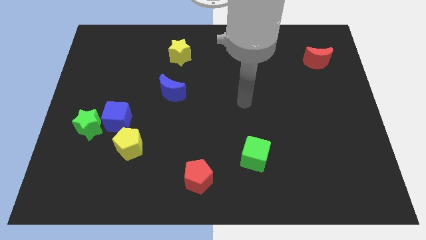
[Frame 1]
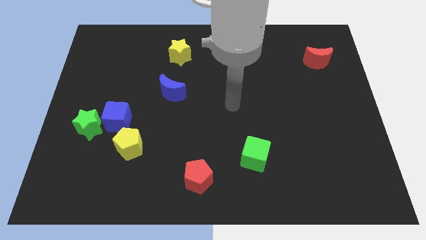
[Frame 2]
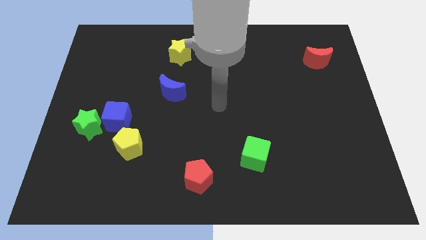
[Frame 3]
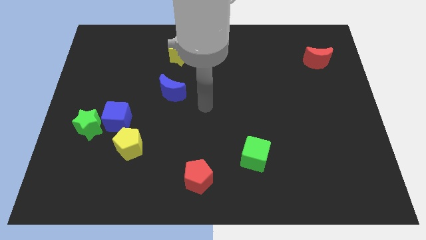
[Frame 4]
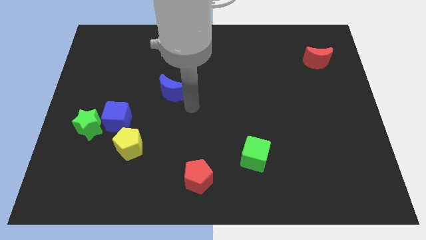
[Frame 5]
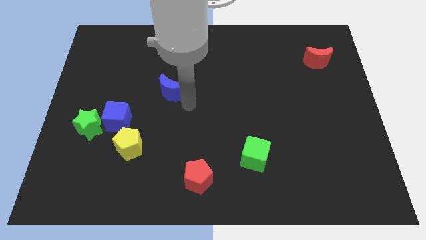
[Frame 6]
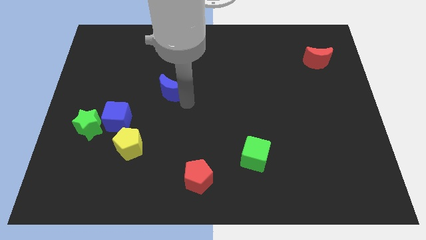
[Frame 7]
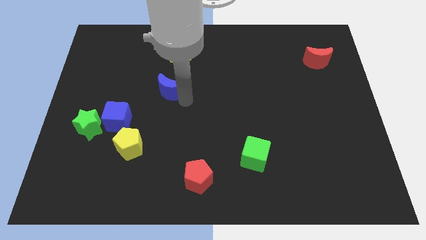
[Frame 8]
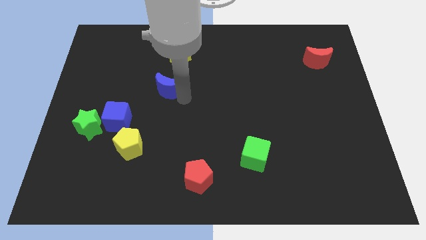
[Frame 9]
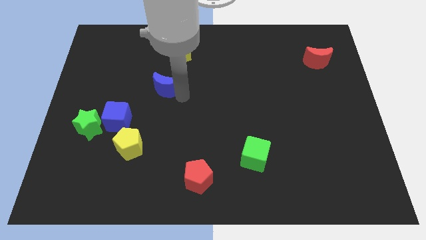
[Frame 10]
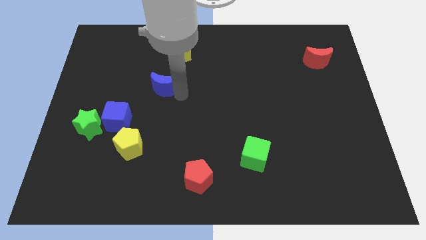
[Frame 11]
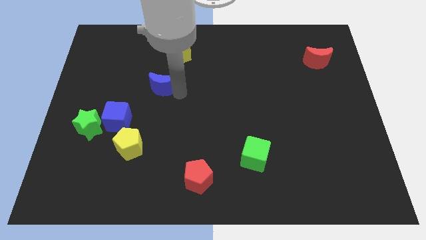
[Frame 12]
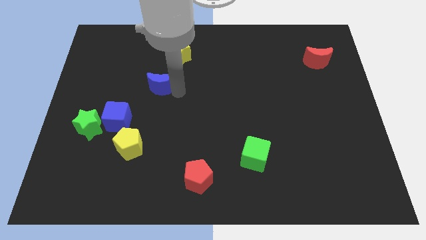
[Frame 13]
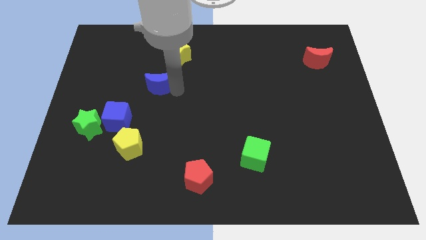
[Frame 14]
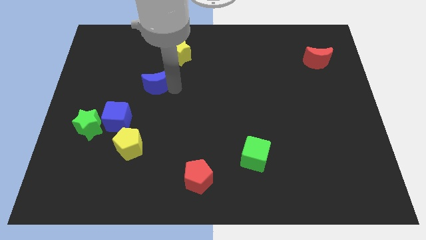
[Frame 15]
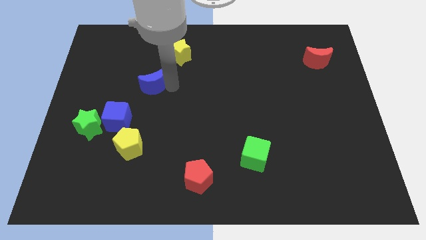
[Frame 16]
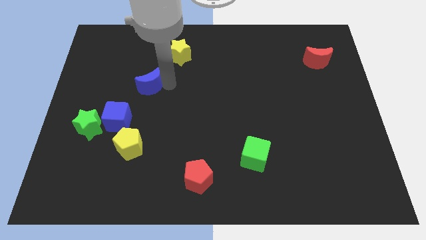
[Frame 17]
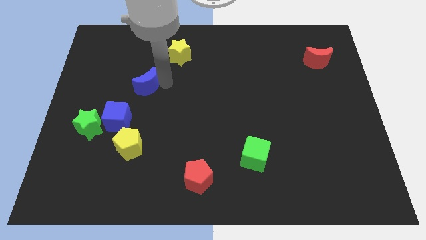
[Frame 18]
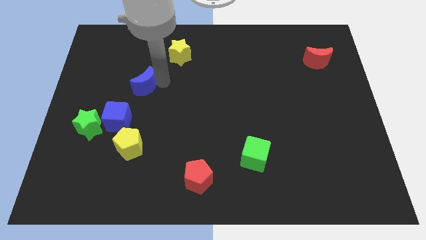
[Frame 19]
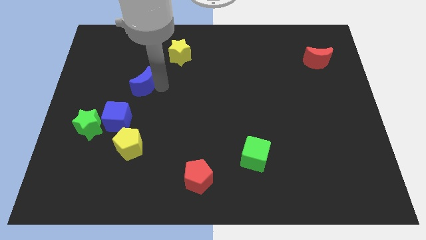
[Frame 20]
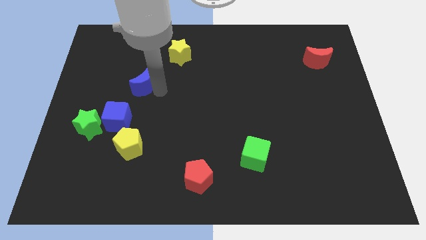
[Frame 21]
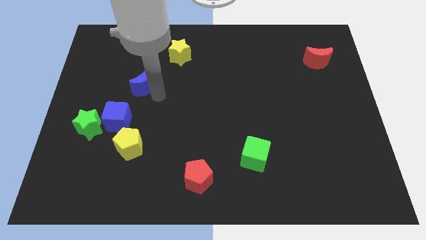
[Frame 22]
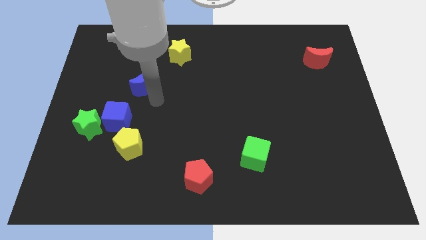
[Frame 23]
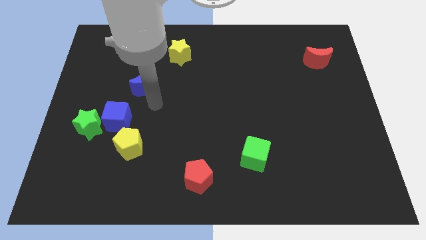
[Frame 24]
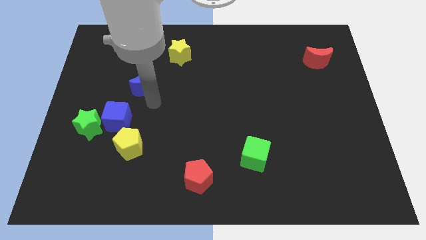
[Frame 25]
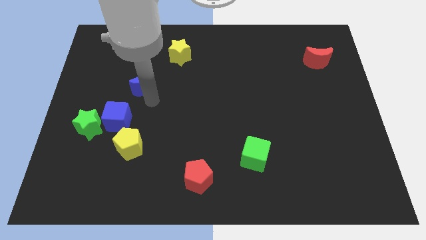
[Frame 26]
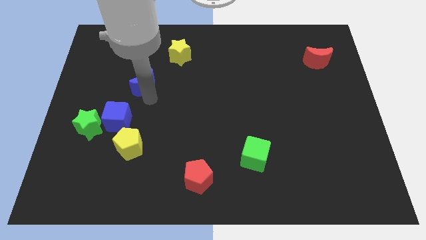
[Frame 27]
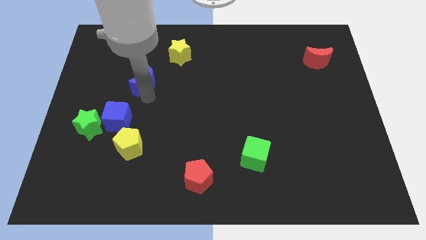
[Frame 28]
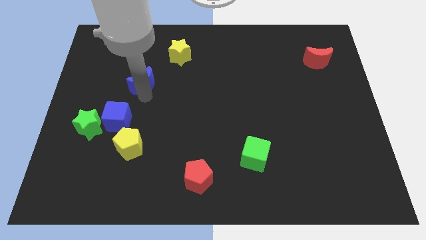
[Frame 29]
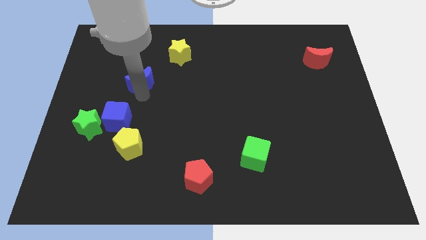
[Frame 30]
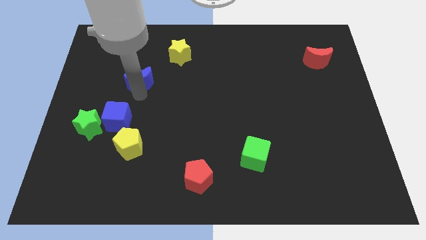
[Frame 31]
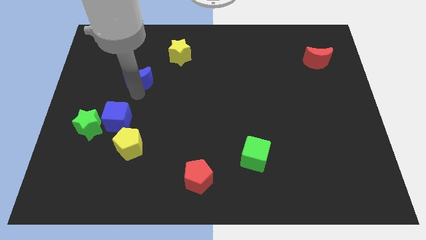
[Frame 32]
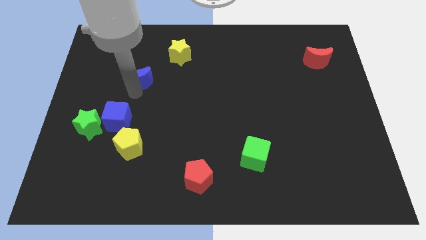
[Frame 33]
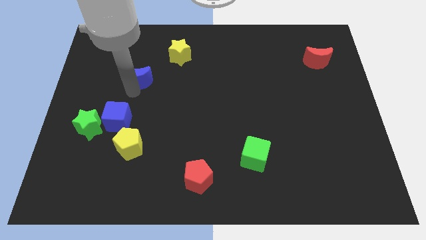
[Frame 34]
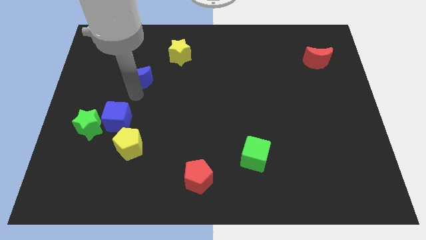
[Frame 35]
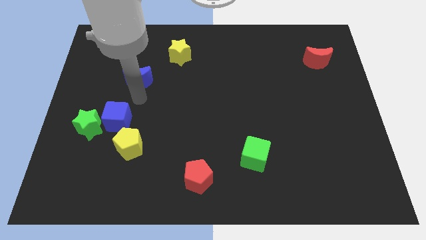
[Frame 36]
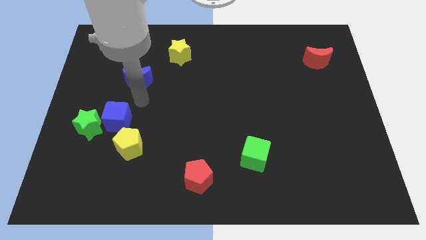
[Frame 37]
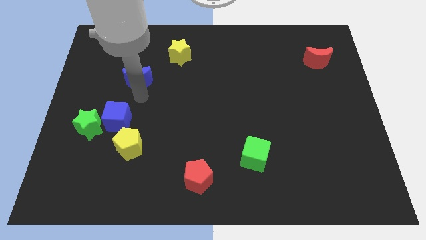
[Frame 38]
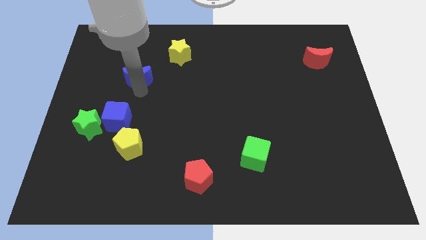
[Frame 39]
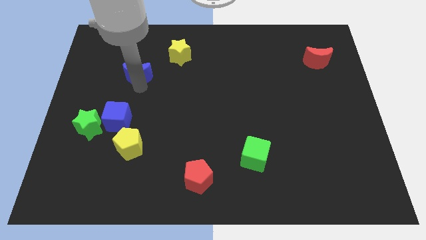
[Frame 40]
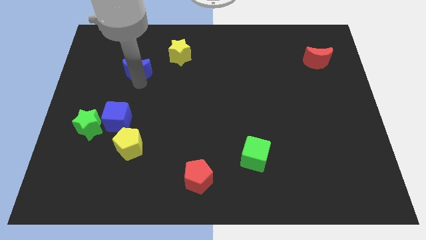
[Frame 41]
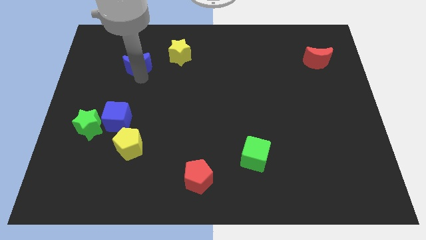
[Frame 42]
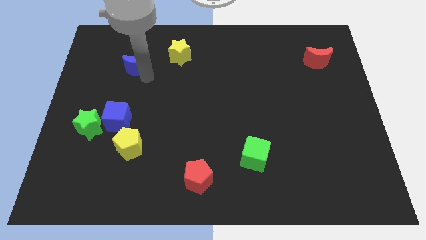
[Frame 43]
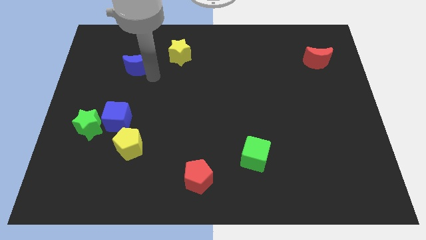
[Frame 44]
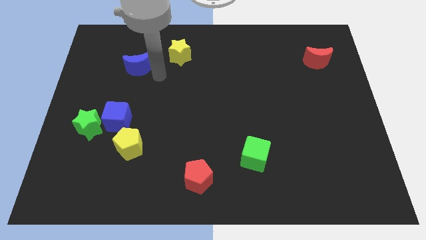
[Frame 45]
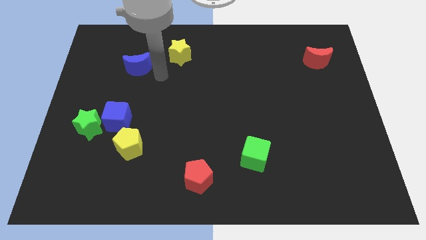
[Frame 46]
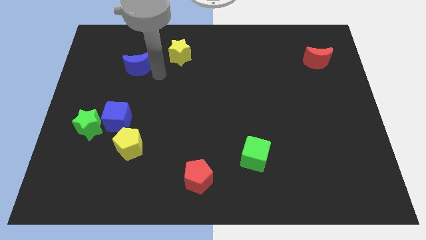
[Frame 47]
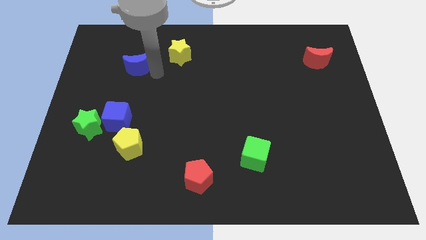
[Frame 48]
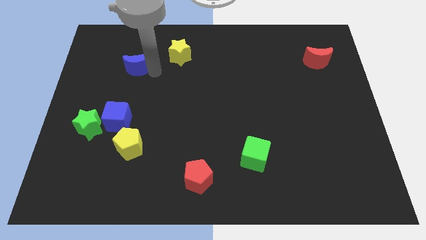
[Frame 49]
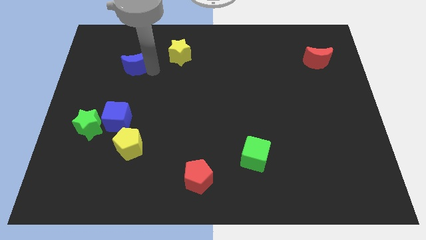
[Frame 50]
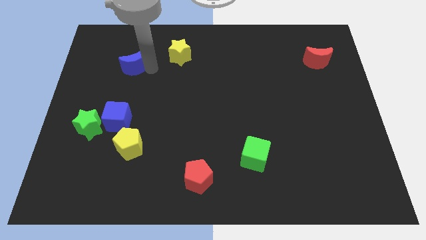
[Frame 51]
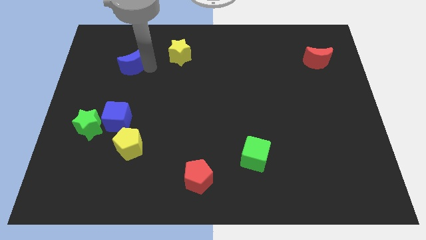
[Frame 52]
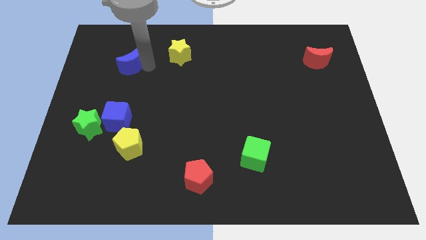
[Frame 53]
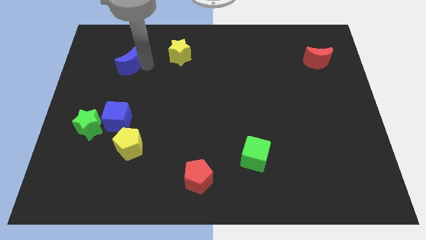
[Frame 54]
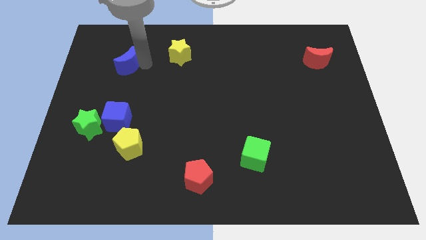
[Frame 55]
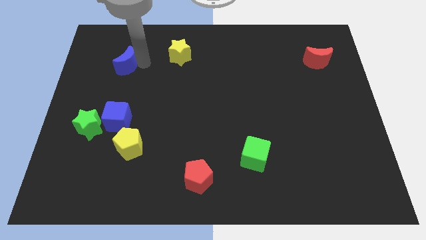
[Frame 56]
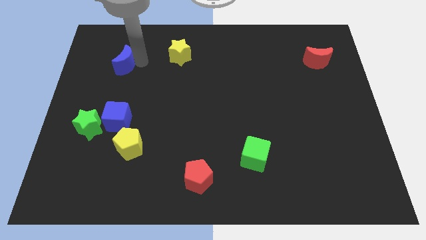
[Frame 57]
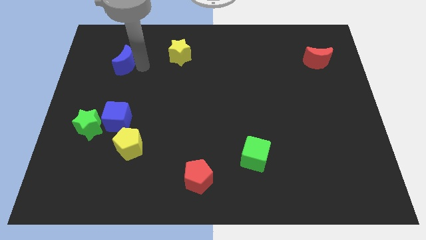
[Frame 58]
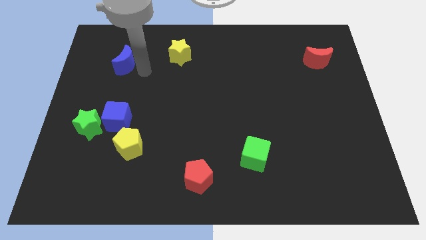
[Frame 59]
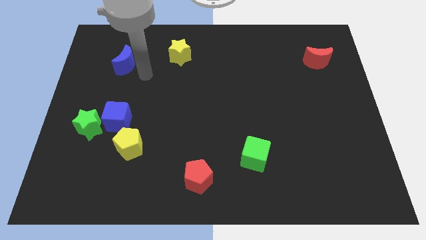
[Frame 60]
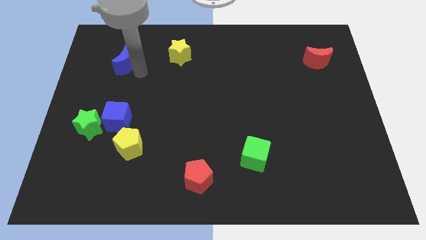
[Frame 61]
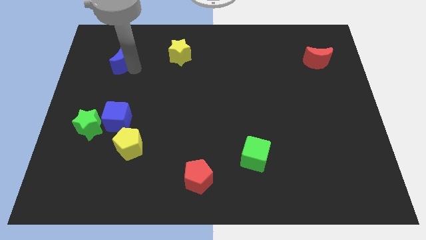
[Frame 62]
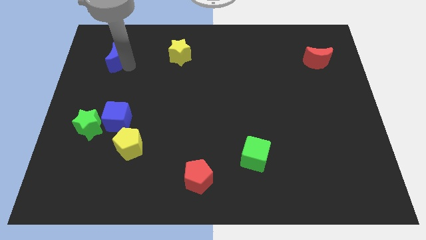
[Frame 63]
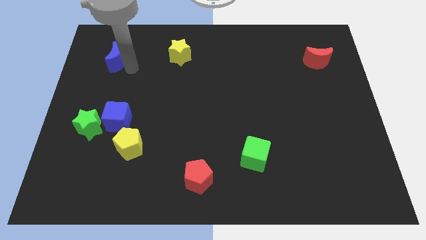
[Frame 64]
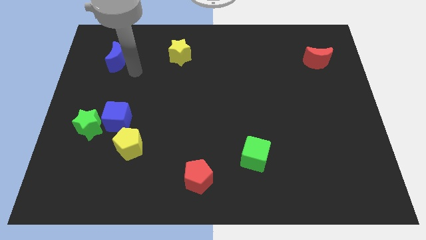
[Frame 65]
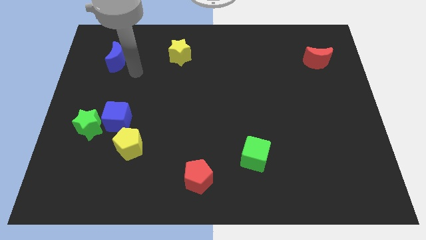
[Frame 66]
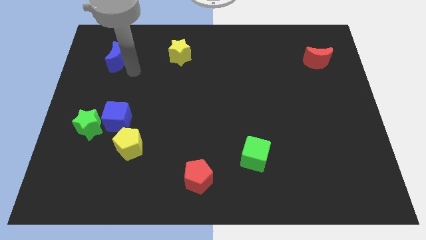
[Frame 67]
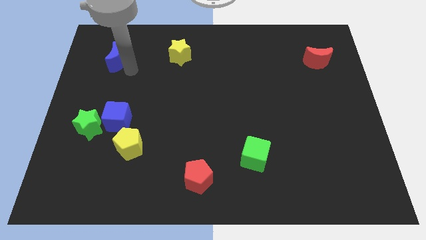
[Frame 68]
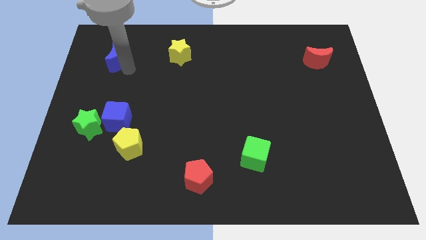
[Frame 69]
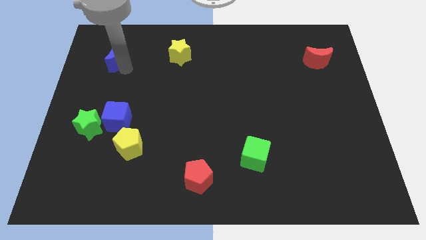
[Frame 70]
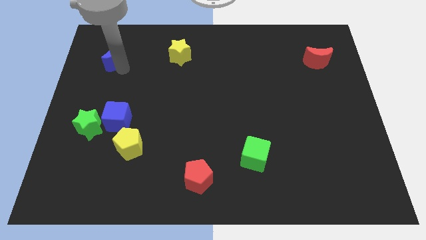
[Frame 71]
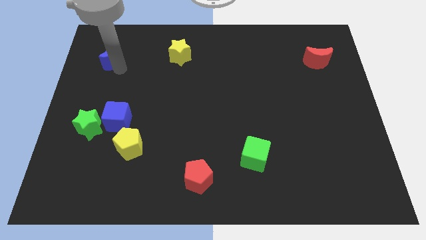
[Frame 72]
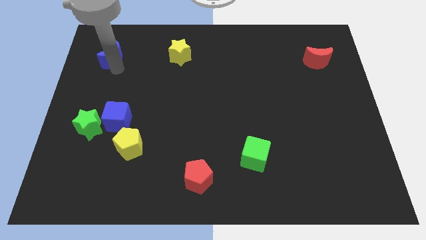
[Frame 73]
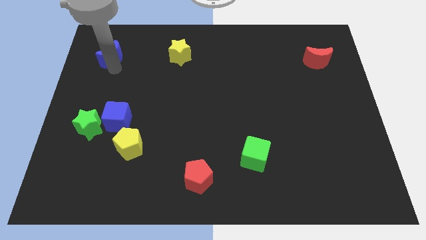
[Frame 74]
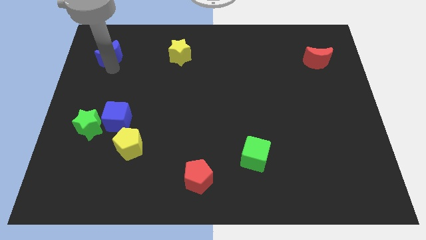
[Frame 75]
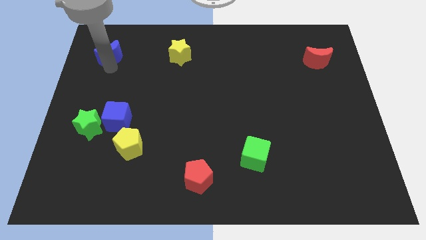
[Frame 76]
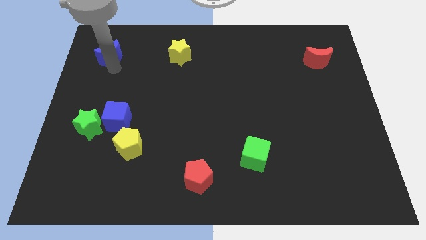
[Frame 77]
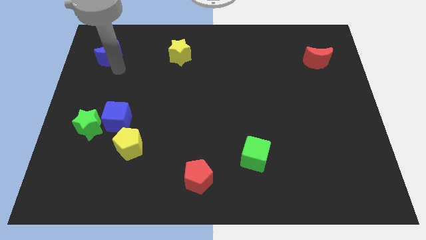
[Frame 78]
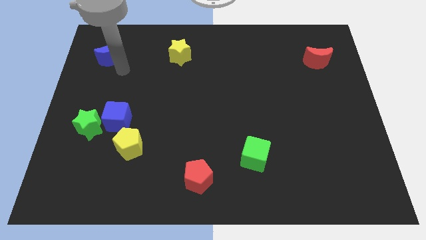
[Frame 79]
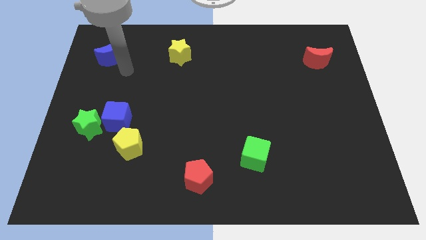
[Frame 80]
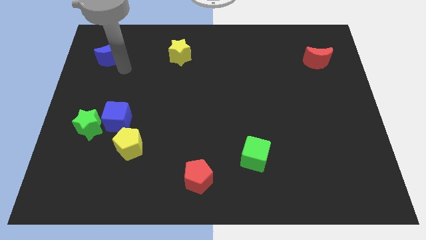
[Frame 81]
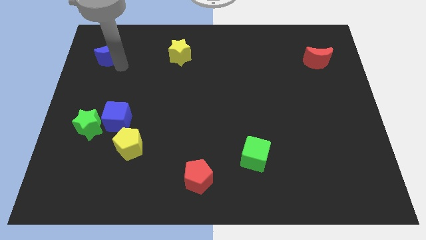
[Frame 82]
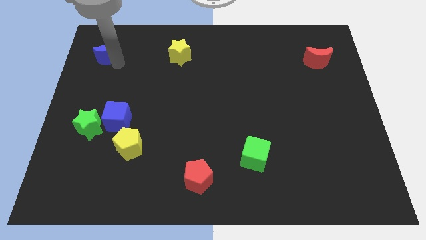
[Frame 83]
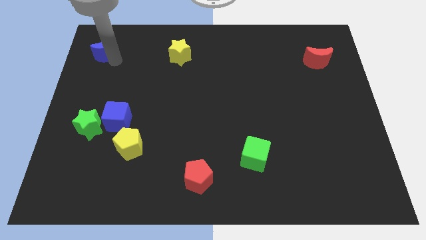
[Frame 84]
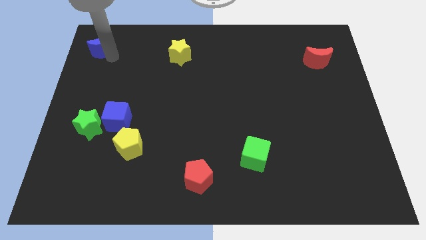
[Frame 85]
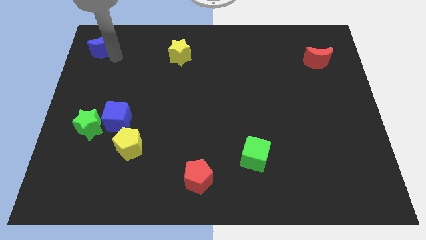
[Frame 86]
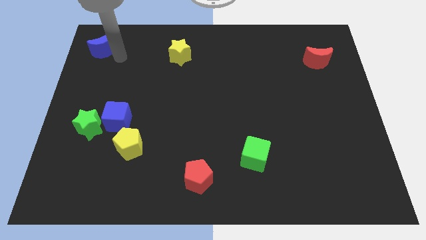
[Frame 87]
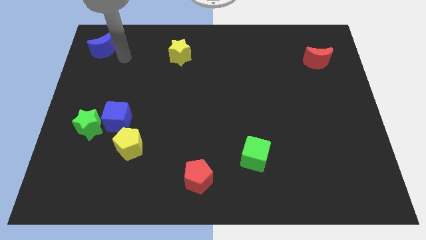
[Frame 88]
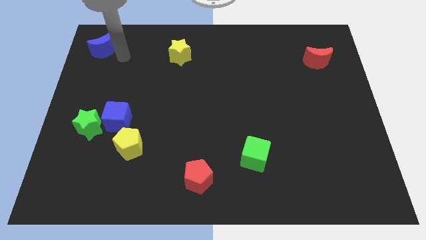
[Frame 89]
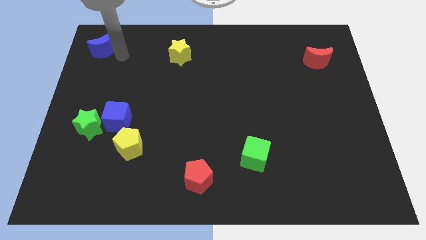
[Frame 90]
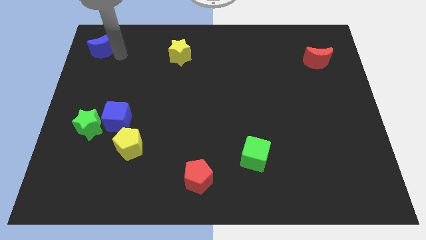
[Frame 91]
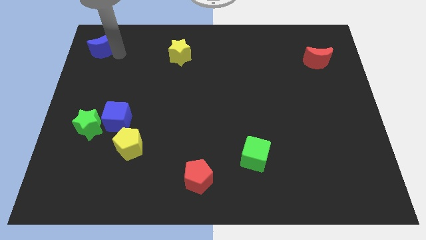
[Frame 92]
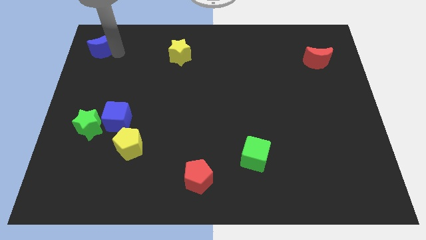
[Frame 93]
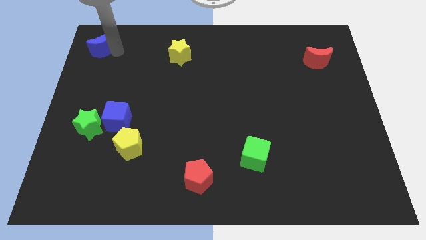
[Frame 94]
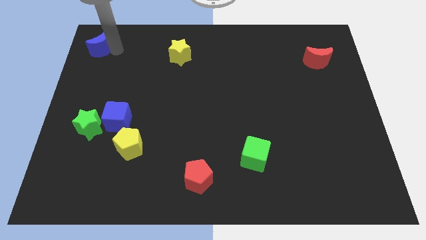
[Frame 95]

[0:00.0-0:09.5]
move the blue moon to the upper left corner
